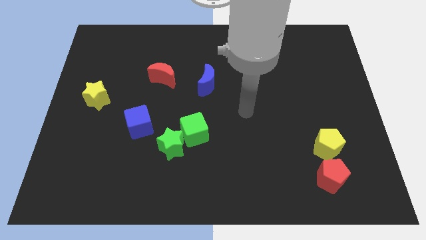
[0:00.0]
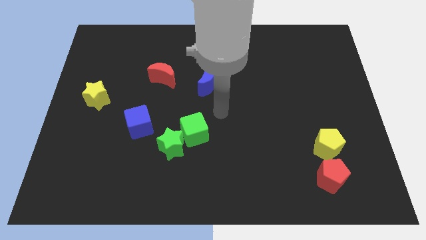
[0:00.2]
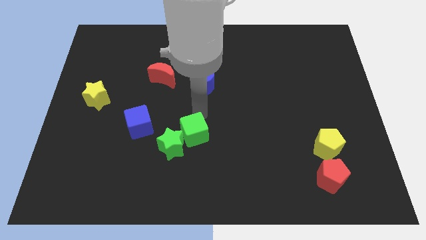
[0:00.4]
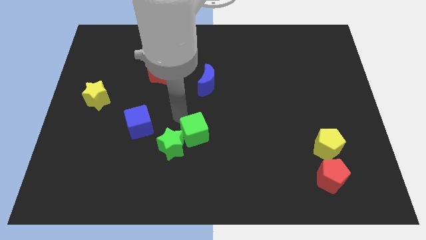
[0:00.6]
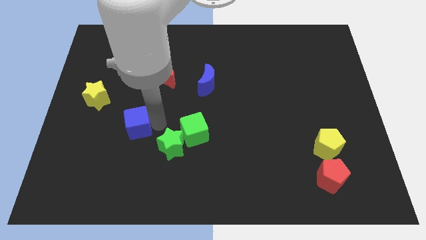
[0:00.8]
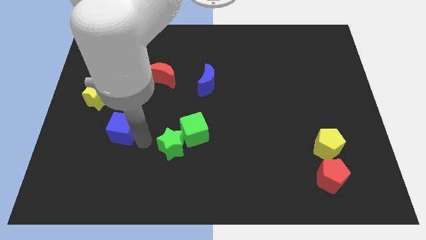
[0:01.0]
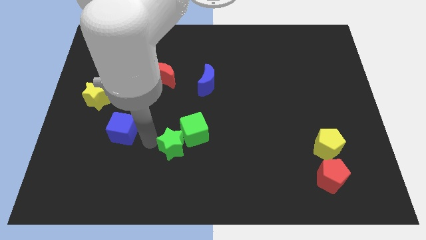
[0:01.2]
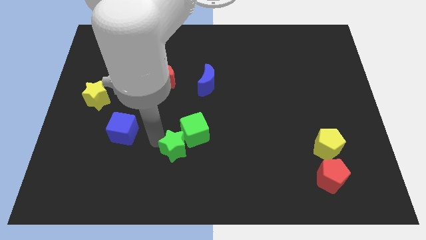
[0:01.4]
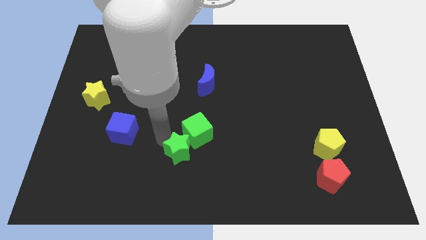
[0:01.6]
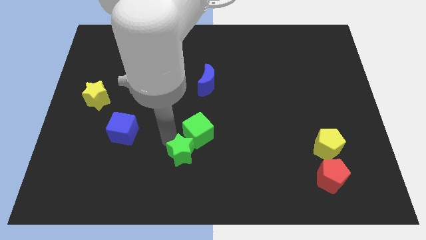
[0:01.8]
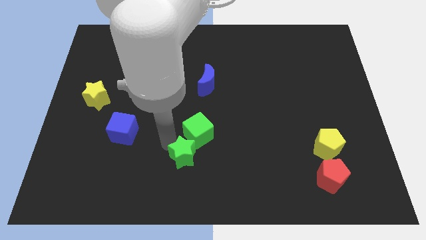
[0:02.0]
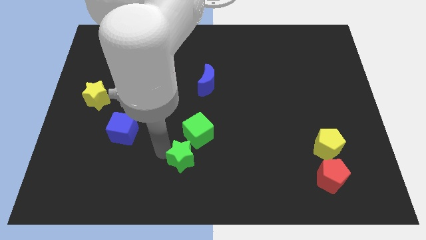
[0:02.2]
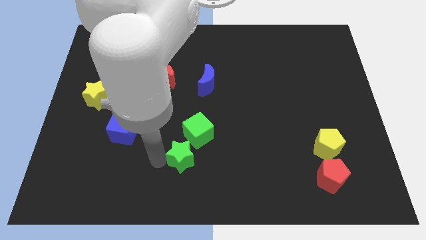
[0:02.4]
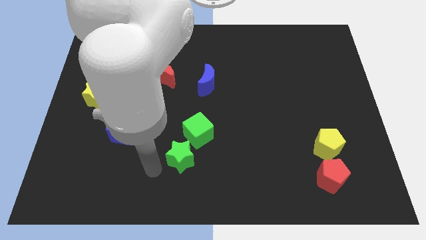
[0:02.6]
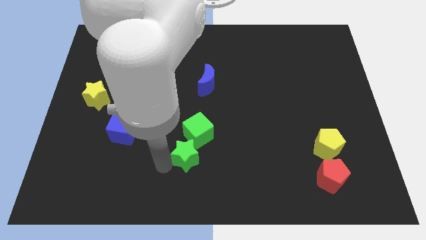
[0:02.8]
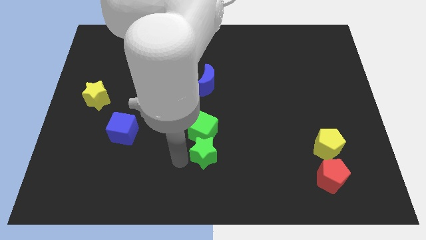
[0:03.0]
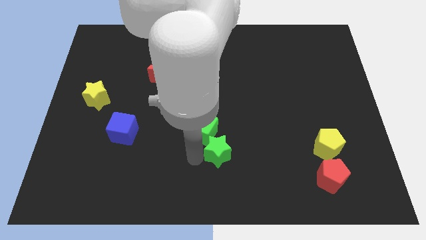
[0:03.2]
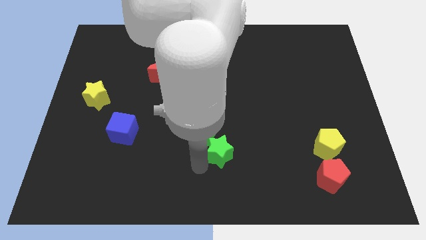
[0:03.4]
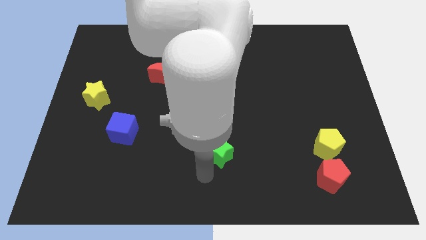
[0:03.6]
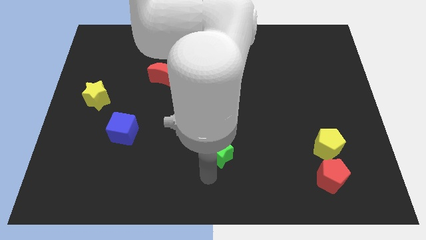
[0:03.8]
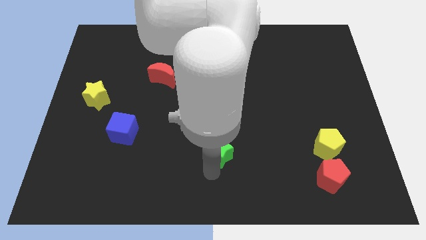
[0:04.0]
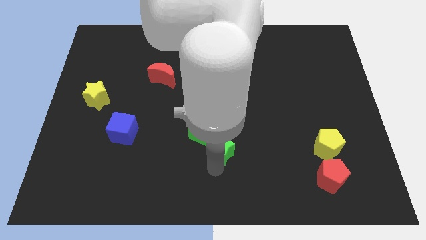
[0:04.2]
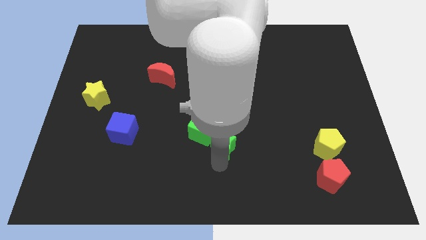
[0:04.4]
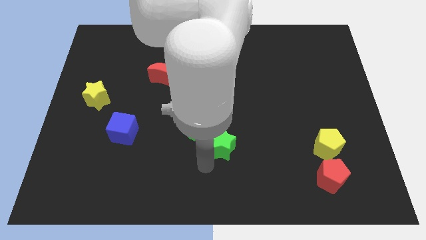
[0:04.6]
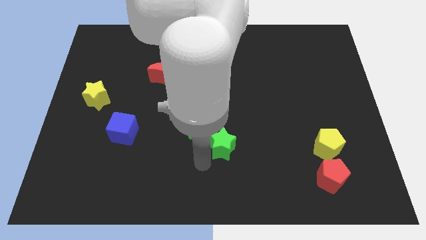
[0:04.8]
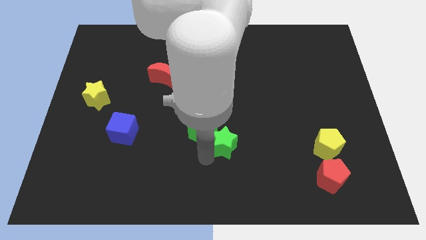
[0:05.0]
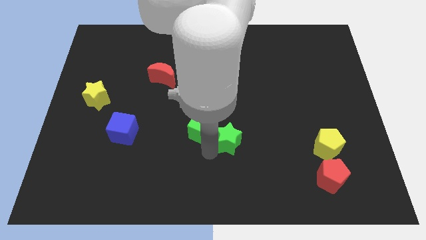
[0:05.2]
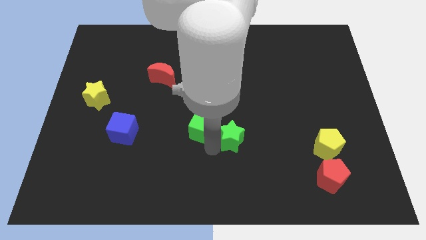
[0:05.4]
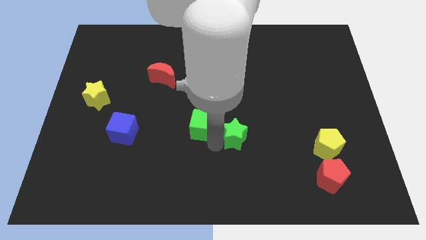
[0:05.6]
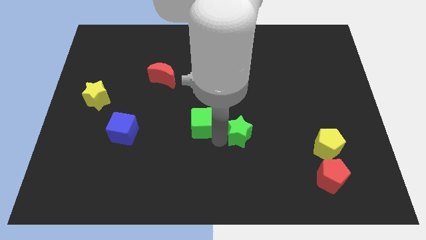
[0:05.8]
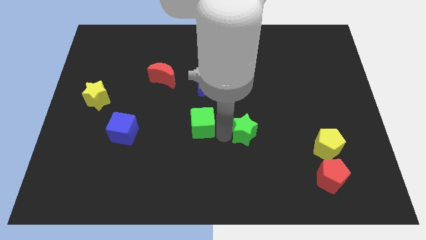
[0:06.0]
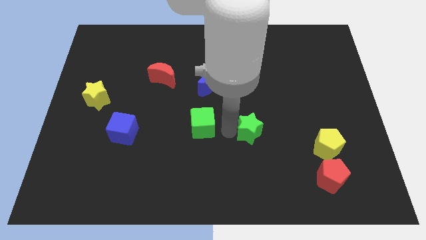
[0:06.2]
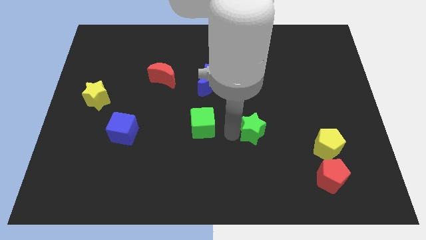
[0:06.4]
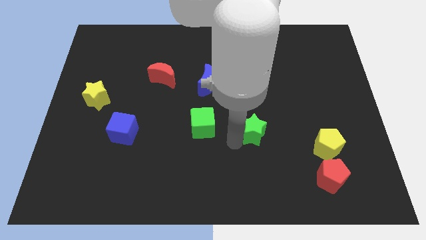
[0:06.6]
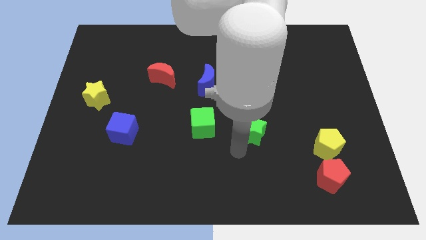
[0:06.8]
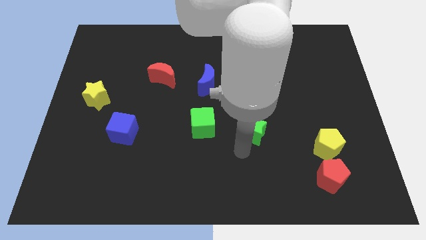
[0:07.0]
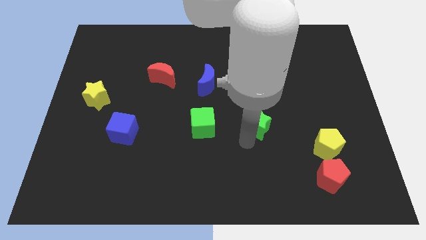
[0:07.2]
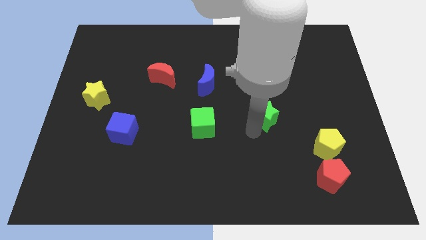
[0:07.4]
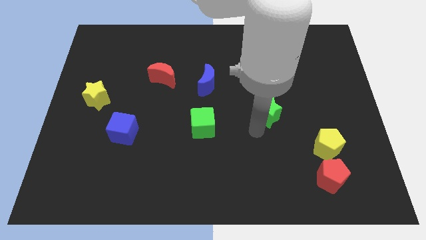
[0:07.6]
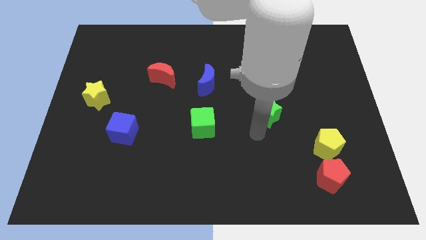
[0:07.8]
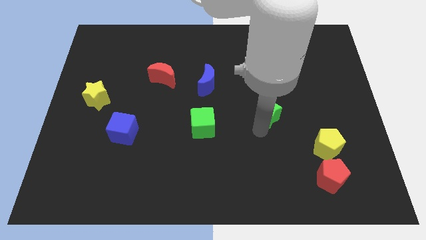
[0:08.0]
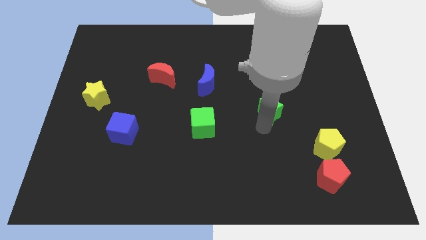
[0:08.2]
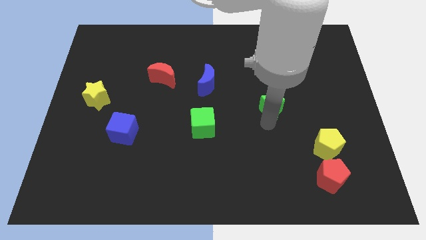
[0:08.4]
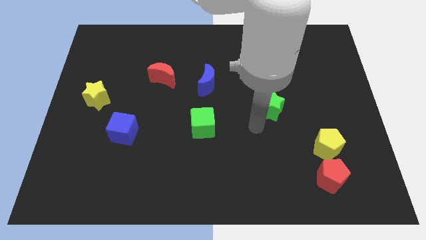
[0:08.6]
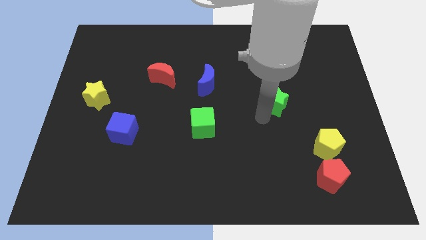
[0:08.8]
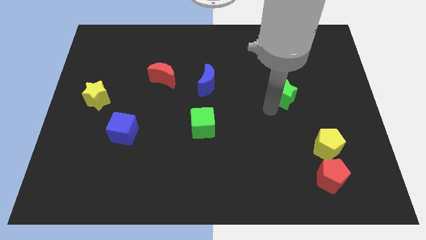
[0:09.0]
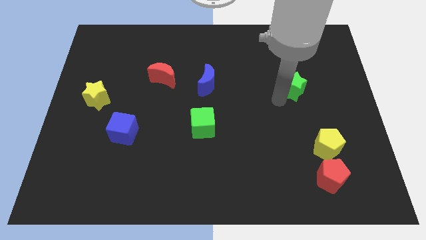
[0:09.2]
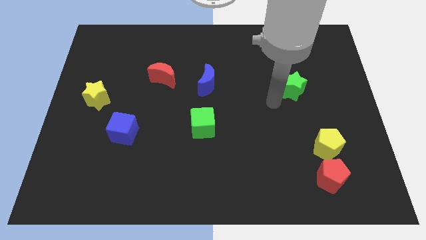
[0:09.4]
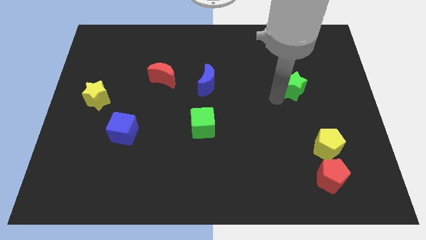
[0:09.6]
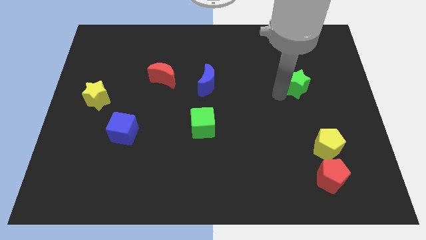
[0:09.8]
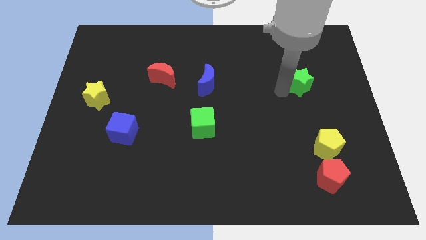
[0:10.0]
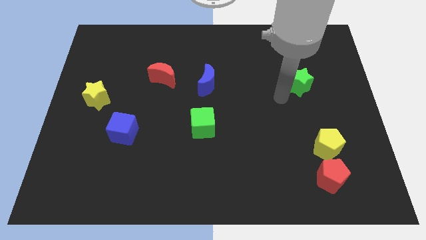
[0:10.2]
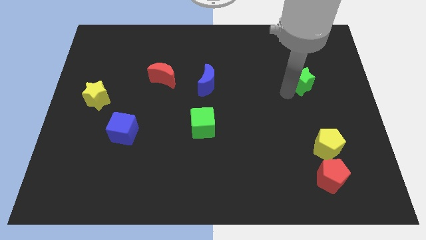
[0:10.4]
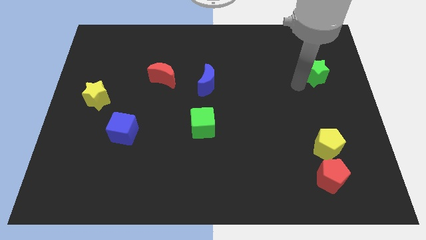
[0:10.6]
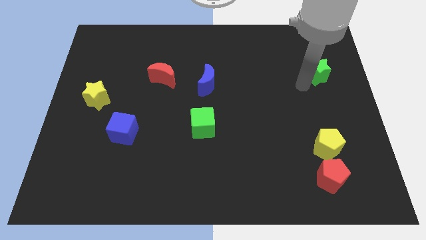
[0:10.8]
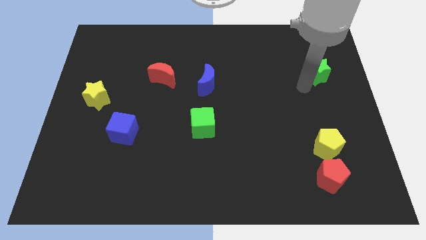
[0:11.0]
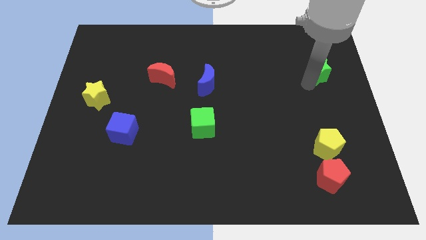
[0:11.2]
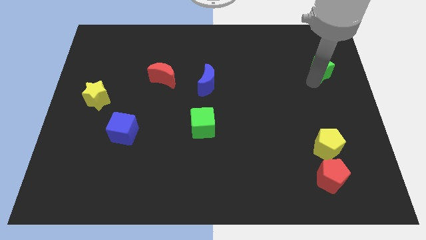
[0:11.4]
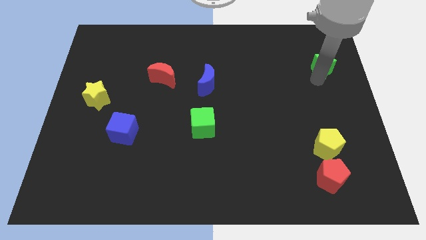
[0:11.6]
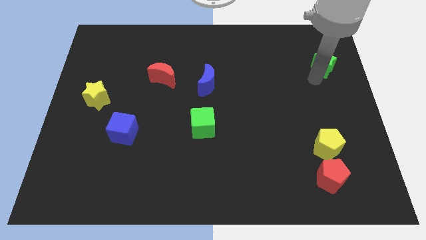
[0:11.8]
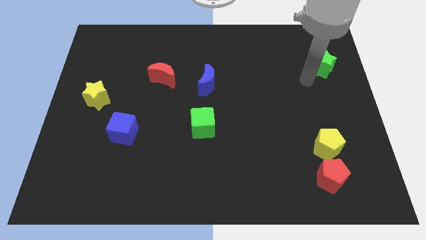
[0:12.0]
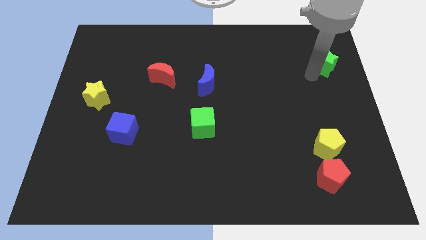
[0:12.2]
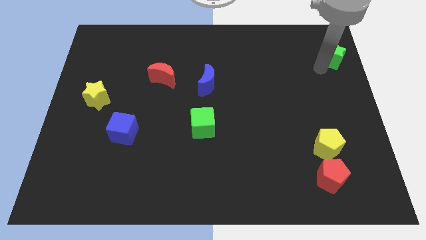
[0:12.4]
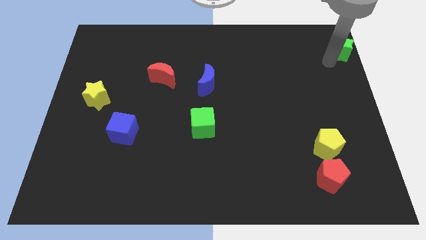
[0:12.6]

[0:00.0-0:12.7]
slide the green star to the top right corner
